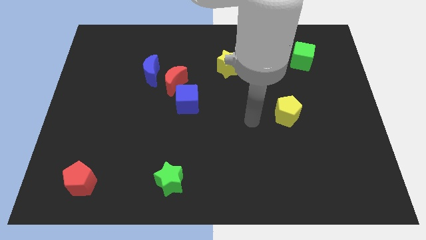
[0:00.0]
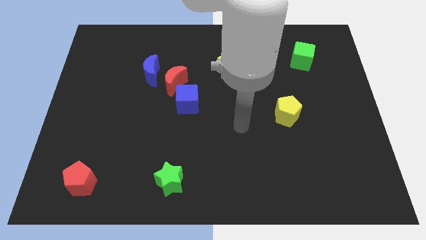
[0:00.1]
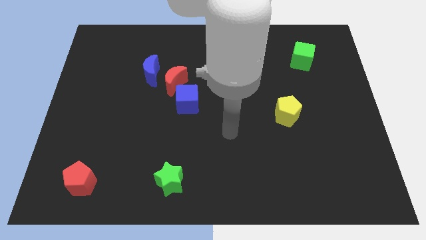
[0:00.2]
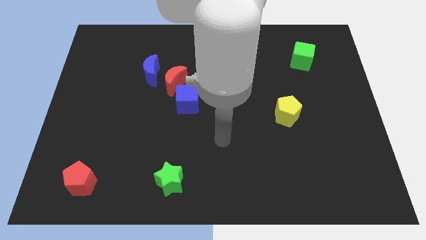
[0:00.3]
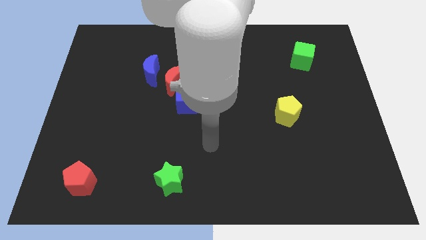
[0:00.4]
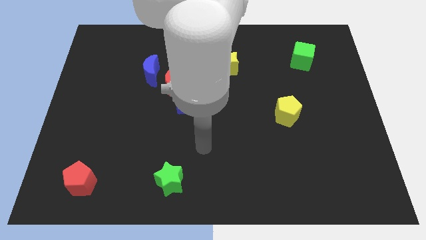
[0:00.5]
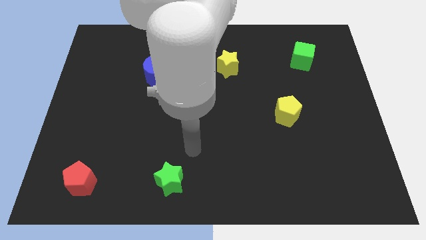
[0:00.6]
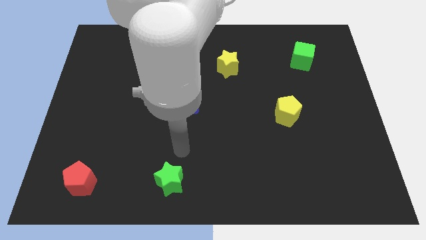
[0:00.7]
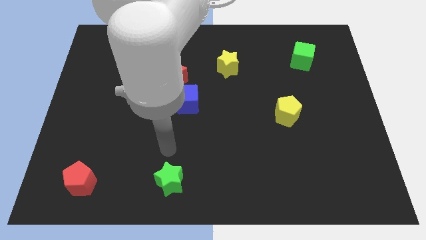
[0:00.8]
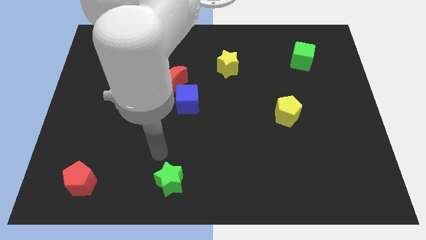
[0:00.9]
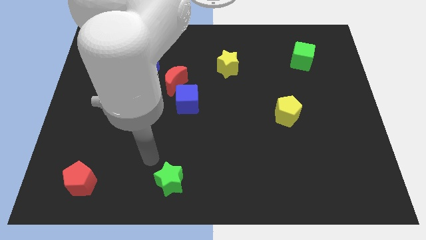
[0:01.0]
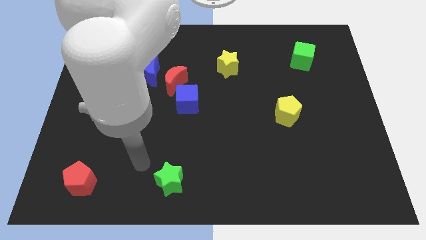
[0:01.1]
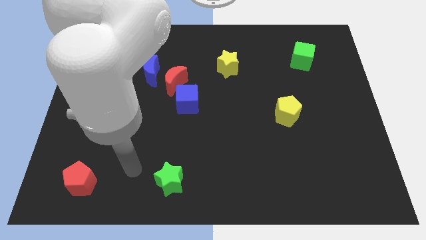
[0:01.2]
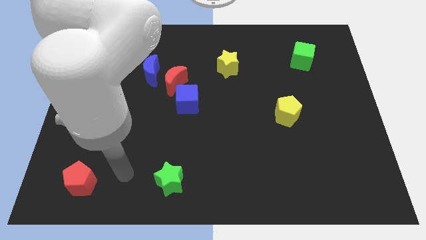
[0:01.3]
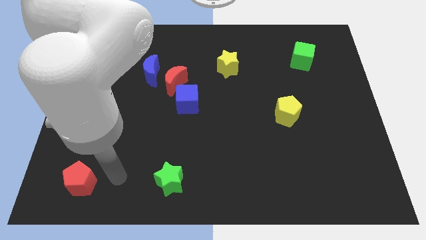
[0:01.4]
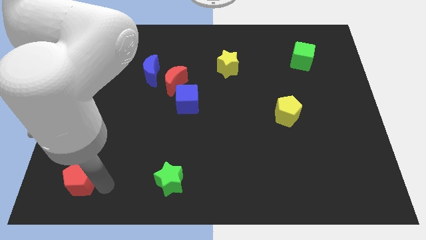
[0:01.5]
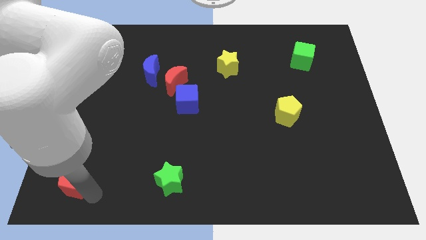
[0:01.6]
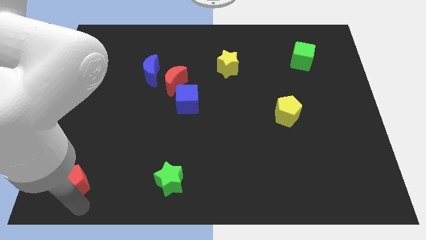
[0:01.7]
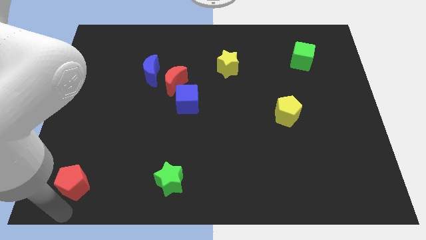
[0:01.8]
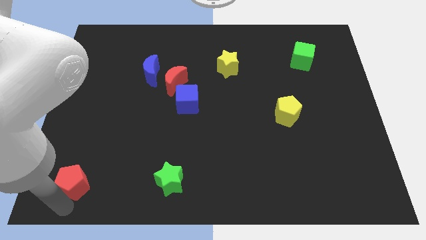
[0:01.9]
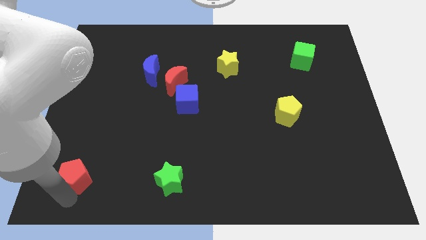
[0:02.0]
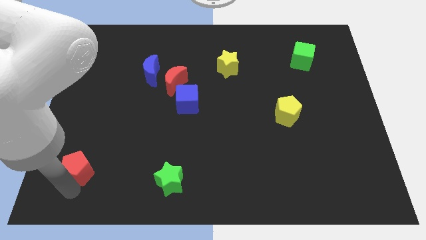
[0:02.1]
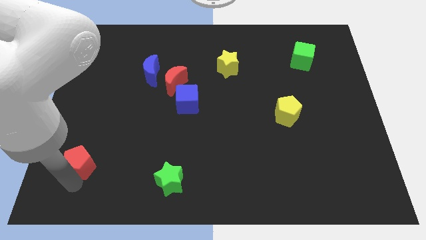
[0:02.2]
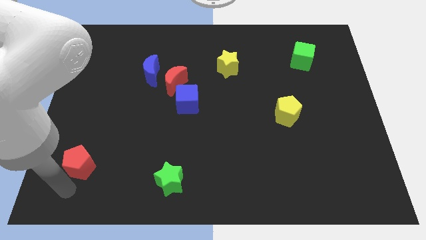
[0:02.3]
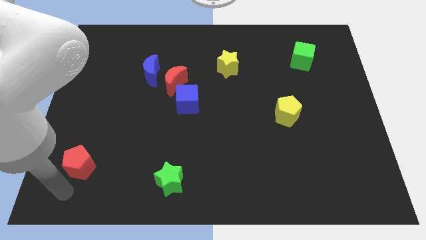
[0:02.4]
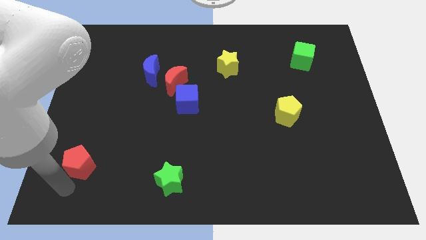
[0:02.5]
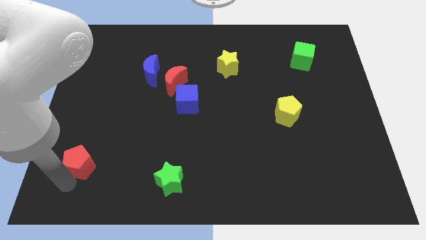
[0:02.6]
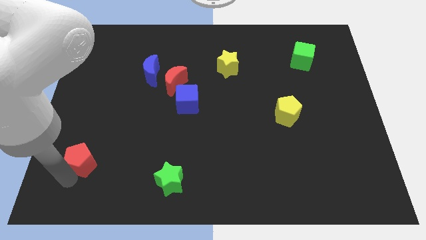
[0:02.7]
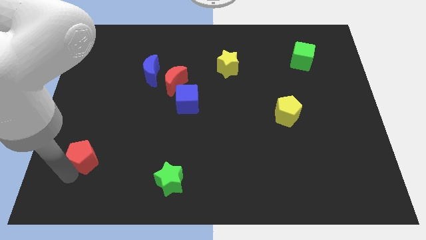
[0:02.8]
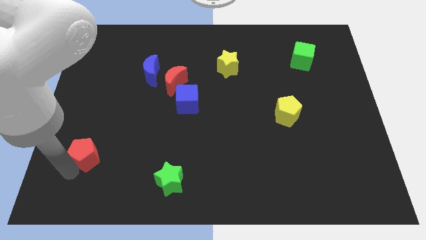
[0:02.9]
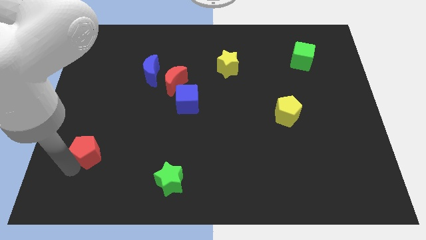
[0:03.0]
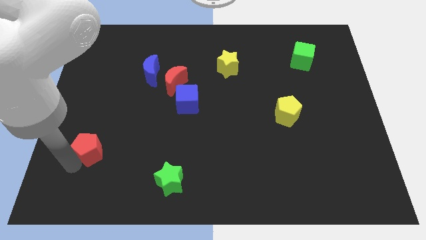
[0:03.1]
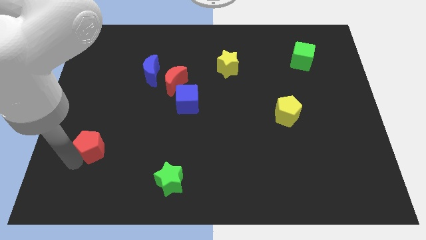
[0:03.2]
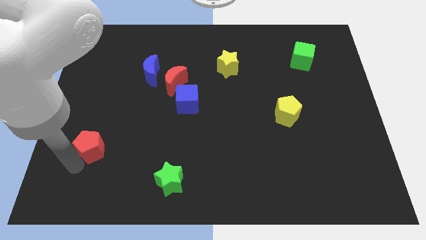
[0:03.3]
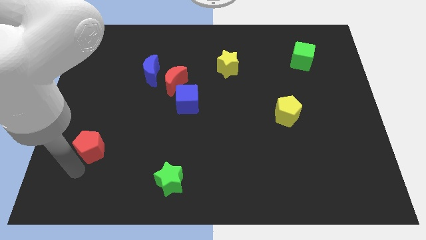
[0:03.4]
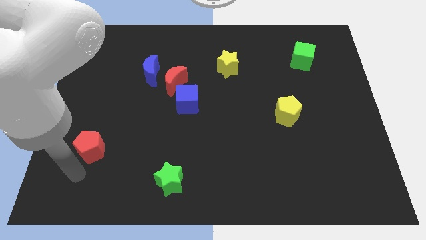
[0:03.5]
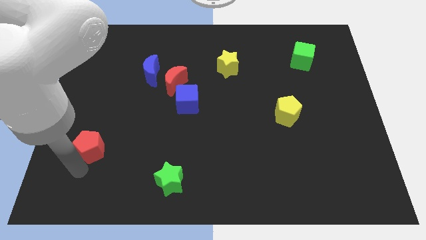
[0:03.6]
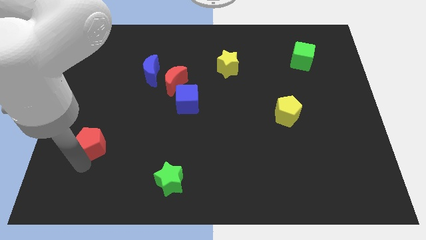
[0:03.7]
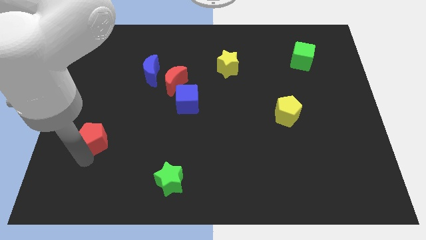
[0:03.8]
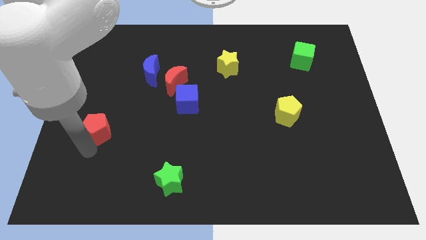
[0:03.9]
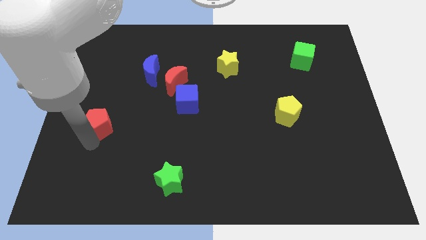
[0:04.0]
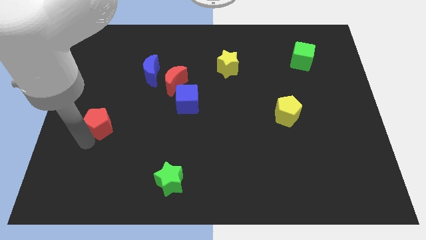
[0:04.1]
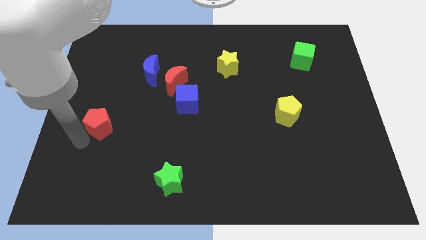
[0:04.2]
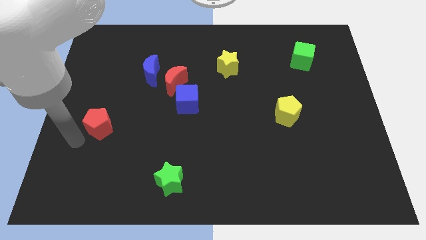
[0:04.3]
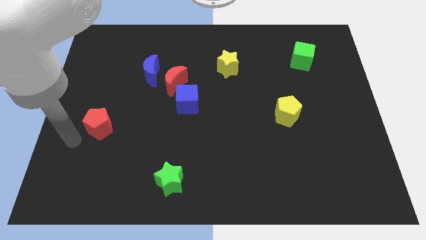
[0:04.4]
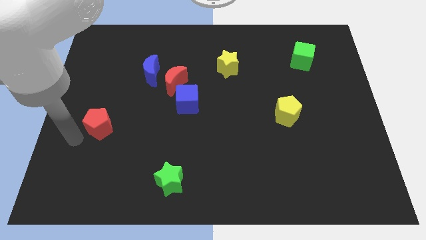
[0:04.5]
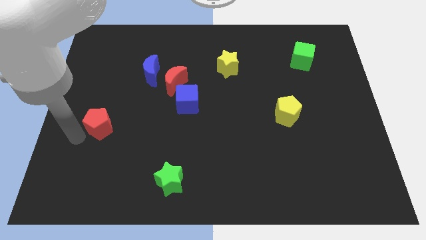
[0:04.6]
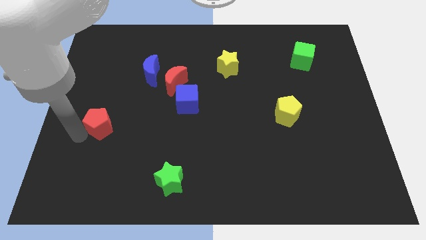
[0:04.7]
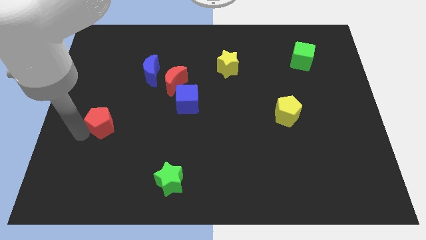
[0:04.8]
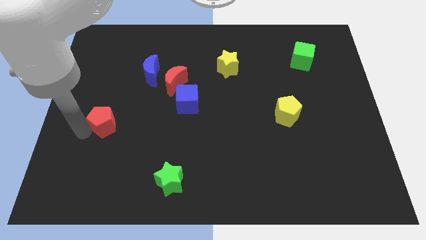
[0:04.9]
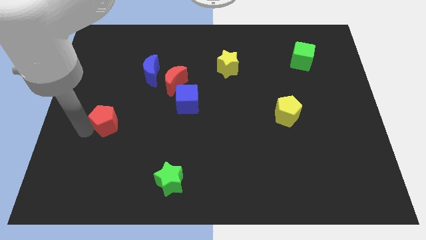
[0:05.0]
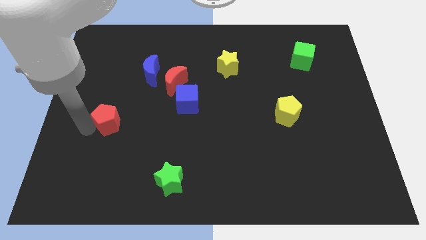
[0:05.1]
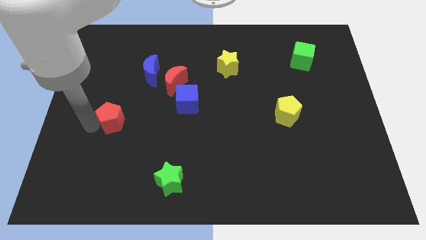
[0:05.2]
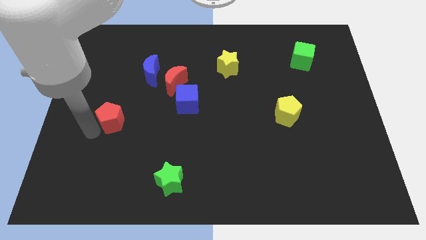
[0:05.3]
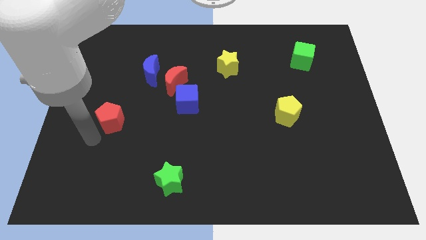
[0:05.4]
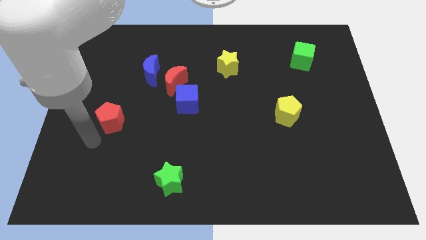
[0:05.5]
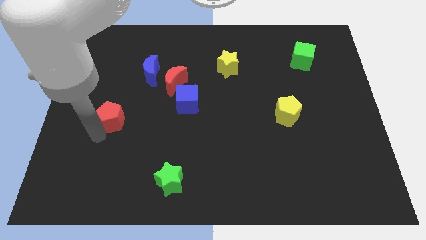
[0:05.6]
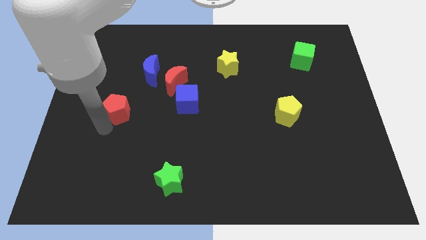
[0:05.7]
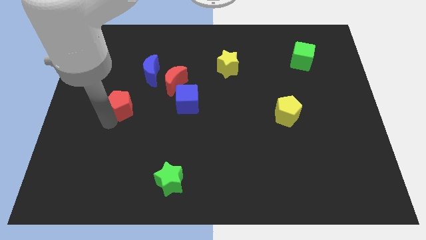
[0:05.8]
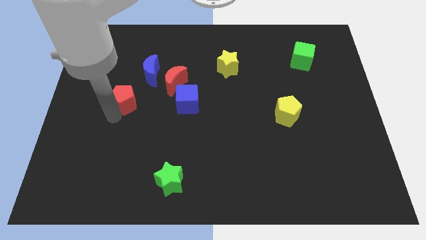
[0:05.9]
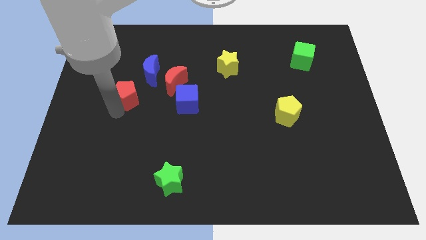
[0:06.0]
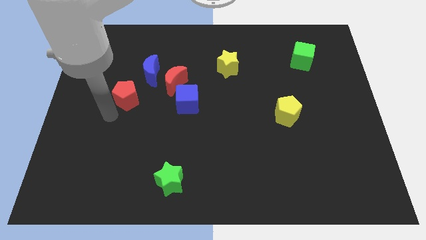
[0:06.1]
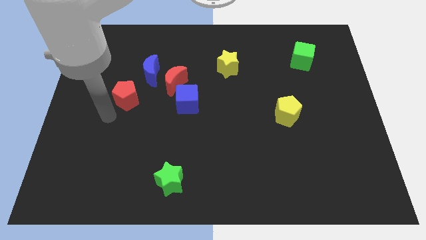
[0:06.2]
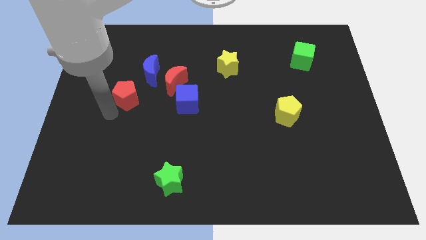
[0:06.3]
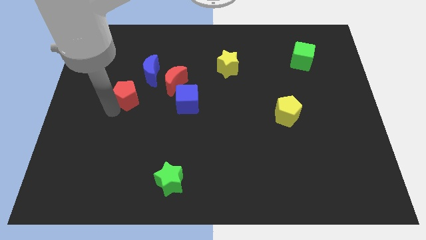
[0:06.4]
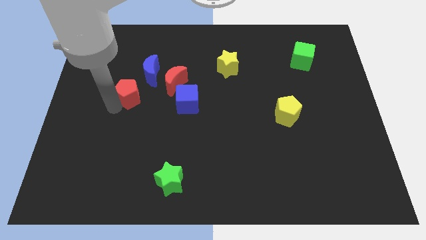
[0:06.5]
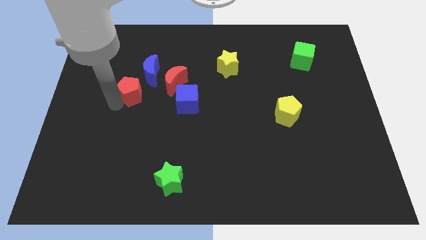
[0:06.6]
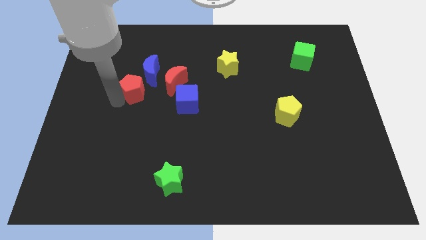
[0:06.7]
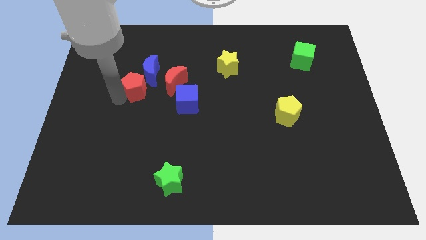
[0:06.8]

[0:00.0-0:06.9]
slide the red pentagon to the blue moon

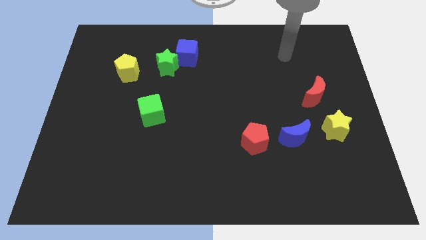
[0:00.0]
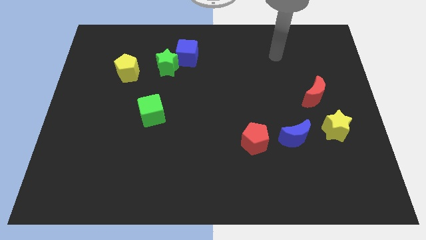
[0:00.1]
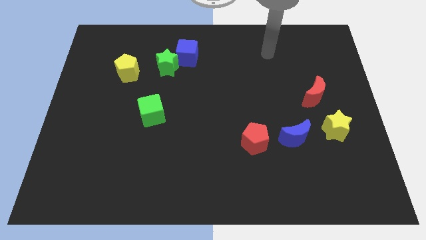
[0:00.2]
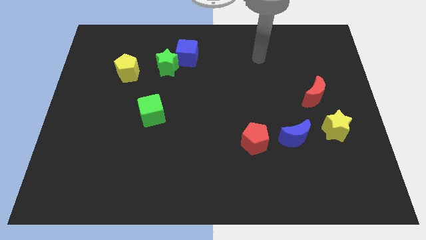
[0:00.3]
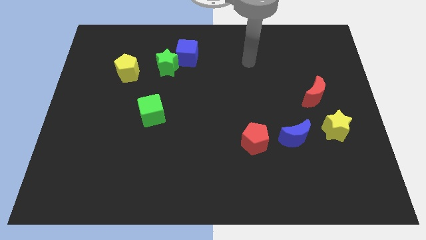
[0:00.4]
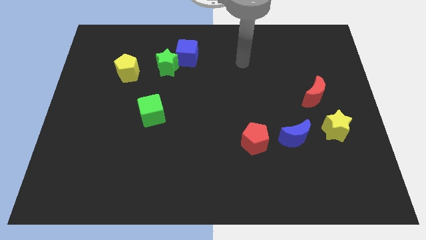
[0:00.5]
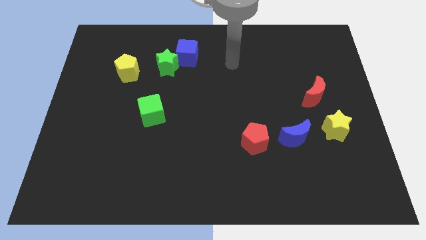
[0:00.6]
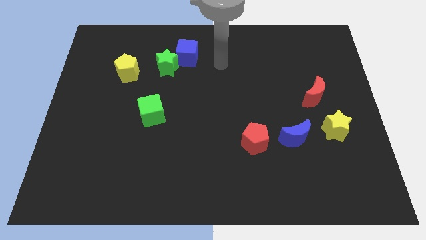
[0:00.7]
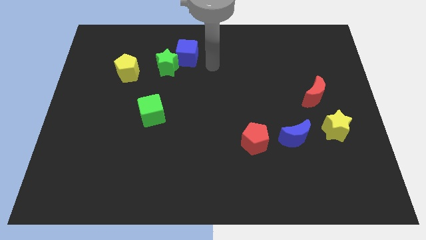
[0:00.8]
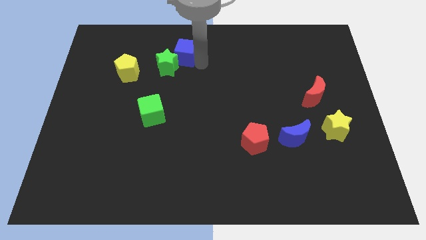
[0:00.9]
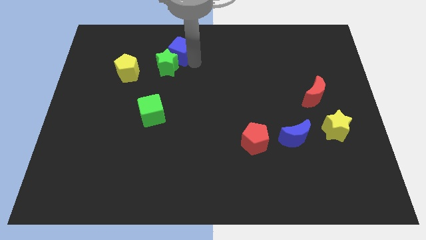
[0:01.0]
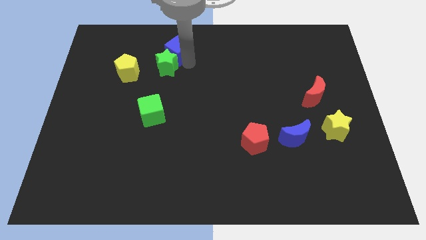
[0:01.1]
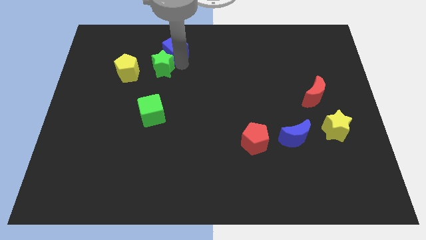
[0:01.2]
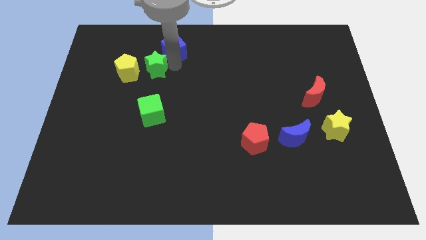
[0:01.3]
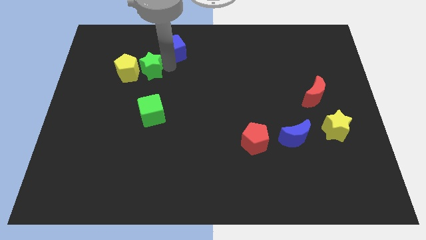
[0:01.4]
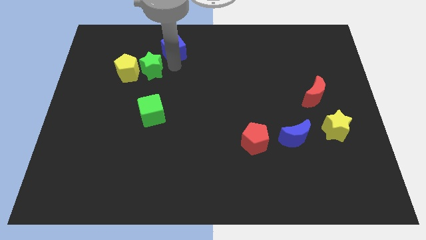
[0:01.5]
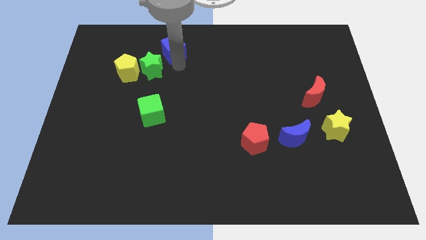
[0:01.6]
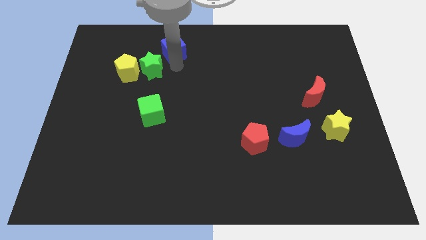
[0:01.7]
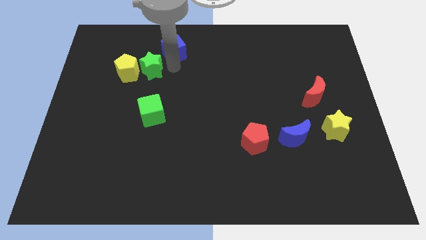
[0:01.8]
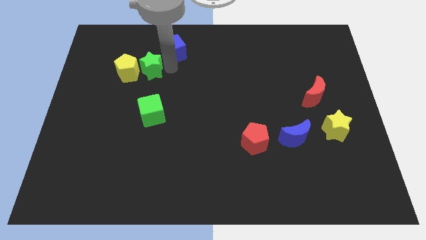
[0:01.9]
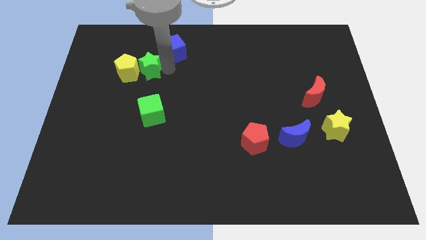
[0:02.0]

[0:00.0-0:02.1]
push the green star next to the yellow pentagon
